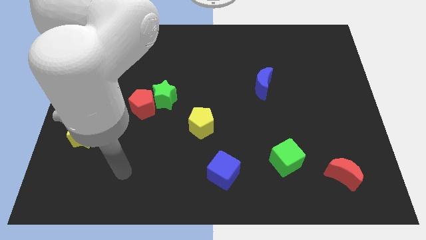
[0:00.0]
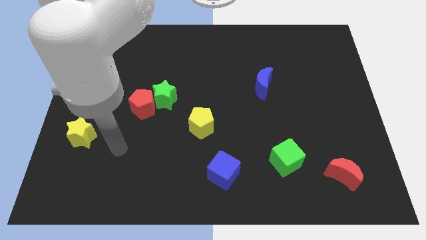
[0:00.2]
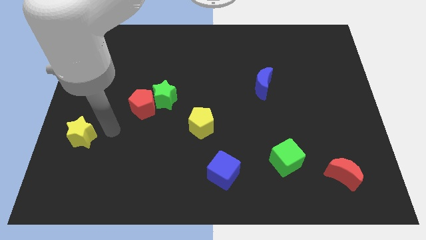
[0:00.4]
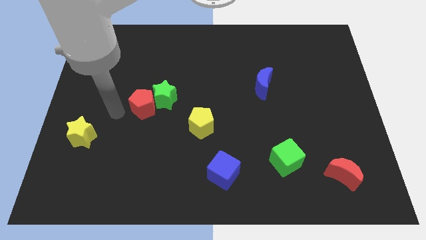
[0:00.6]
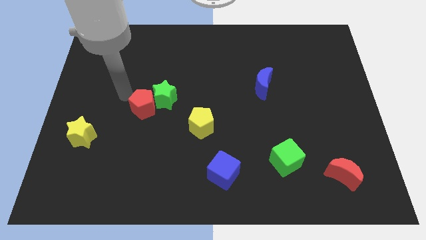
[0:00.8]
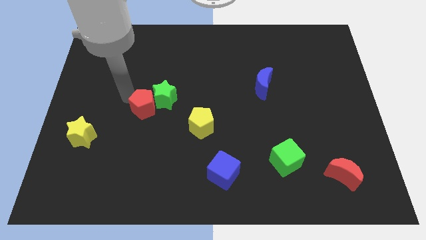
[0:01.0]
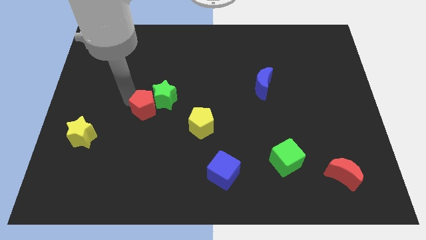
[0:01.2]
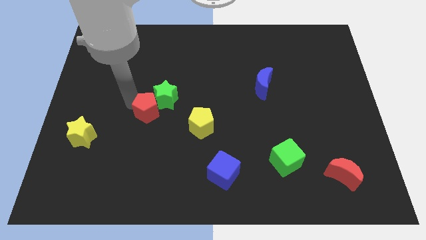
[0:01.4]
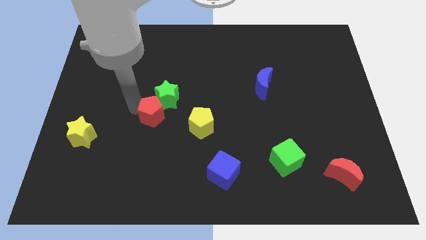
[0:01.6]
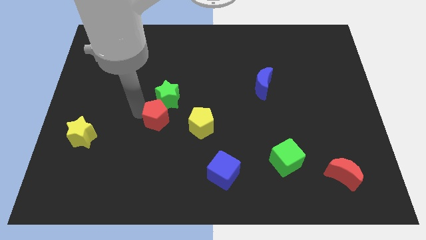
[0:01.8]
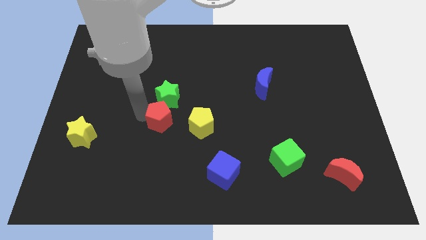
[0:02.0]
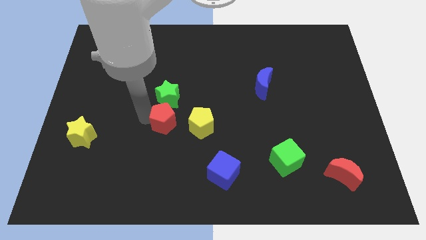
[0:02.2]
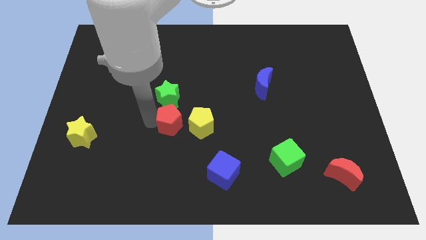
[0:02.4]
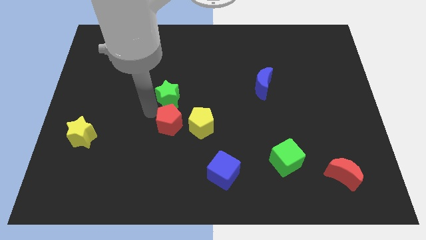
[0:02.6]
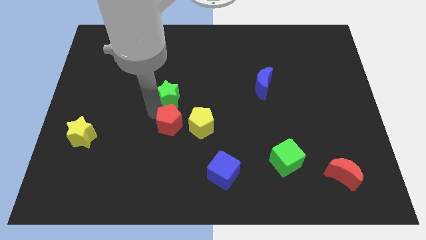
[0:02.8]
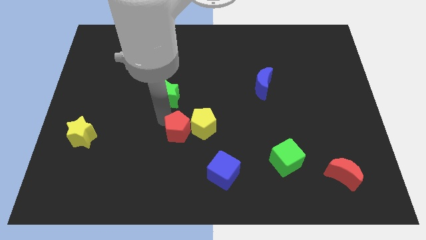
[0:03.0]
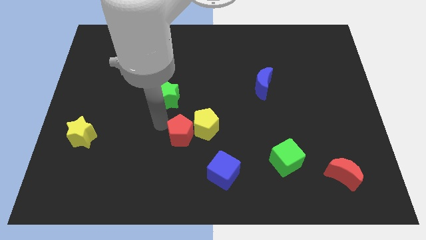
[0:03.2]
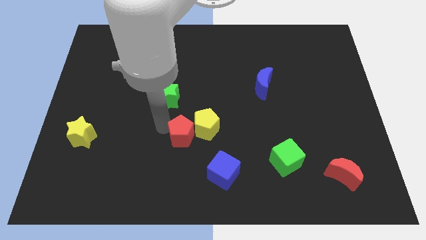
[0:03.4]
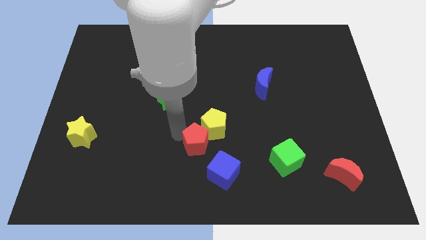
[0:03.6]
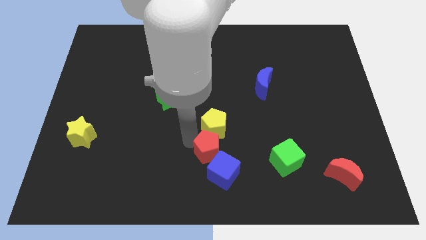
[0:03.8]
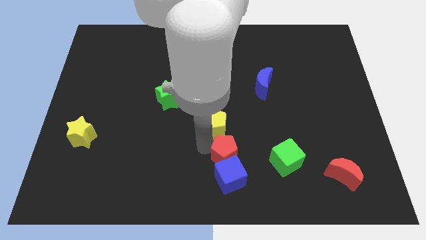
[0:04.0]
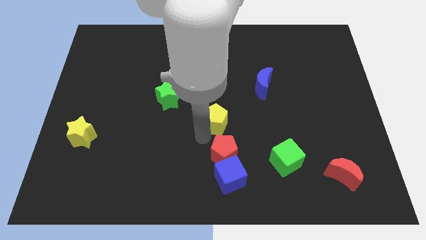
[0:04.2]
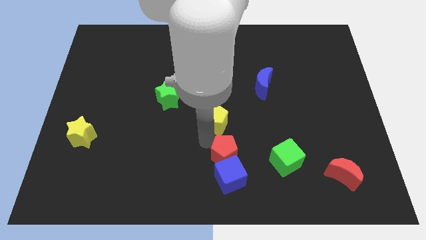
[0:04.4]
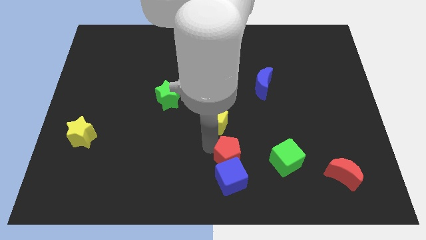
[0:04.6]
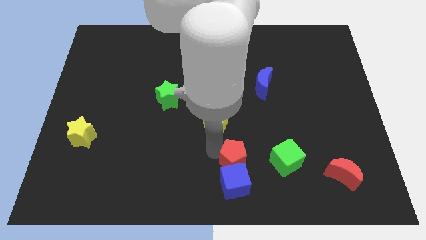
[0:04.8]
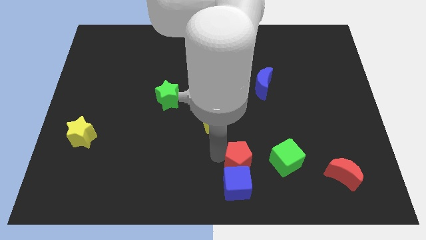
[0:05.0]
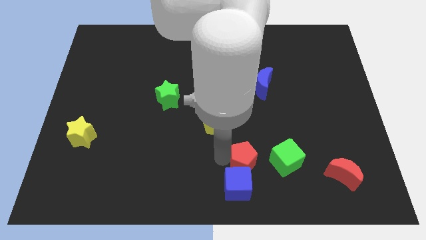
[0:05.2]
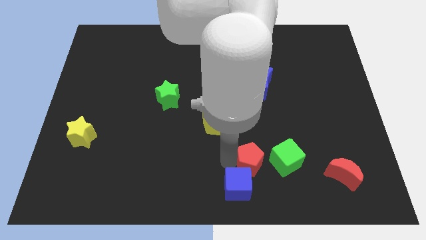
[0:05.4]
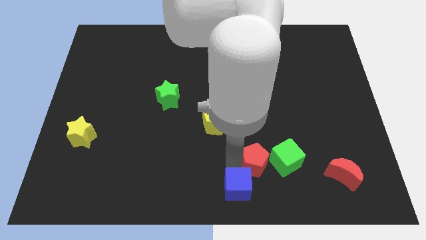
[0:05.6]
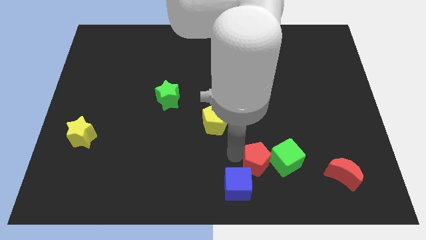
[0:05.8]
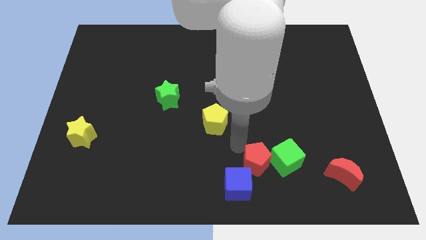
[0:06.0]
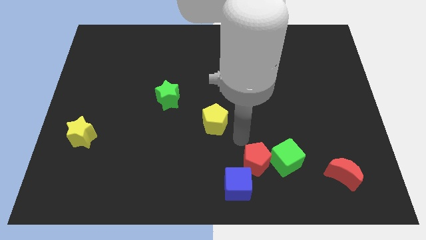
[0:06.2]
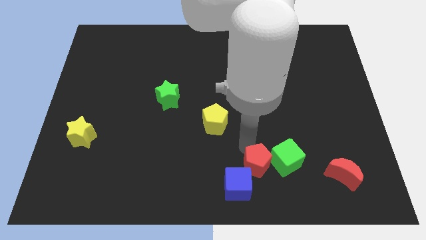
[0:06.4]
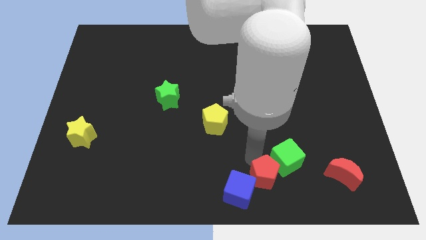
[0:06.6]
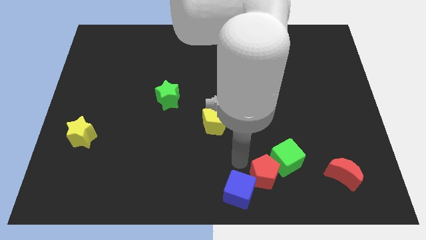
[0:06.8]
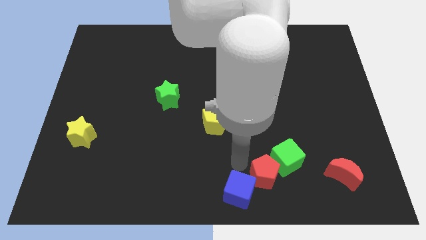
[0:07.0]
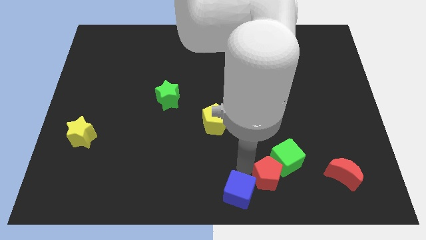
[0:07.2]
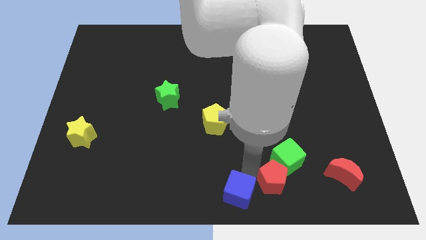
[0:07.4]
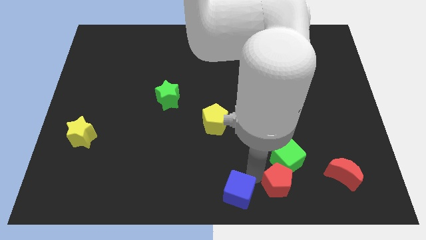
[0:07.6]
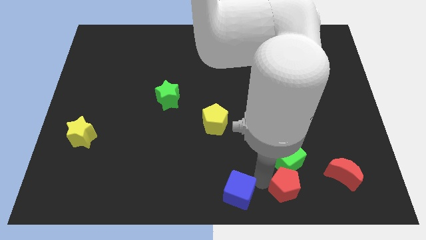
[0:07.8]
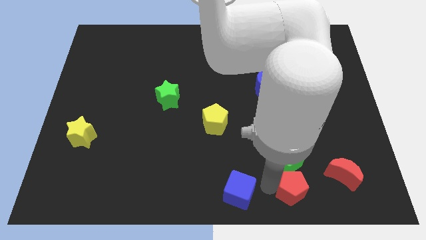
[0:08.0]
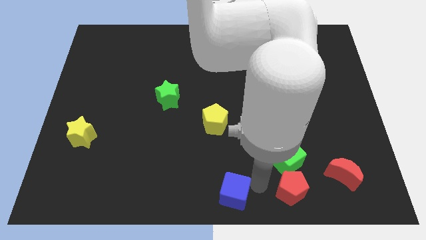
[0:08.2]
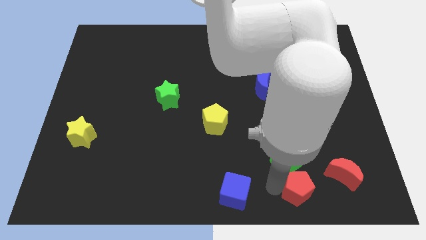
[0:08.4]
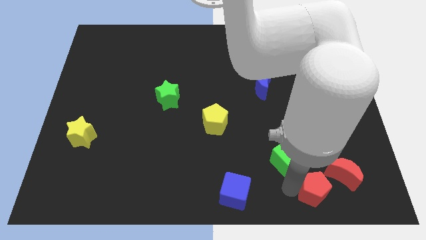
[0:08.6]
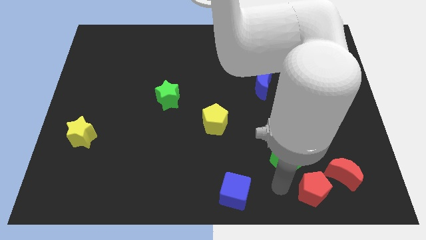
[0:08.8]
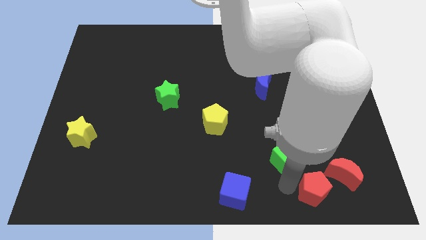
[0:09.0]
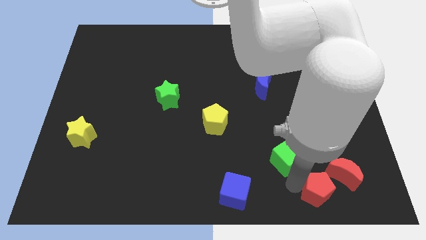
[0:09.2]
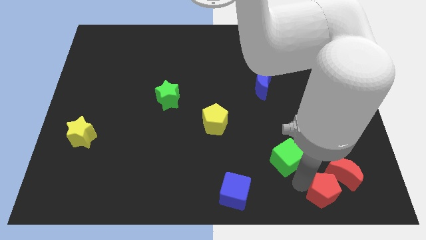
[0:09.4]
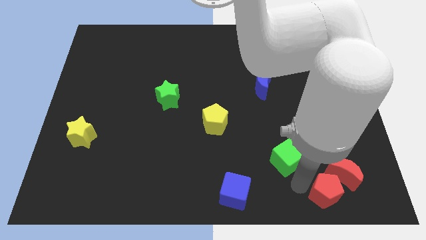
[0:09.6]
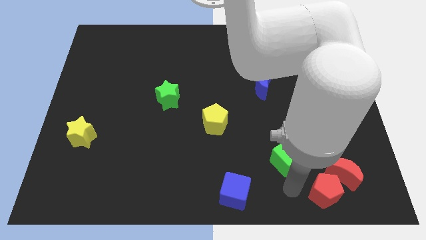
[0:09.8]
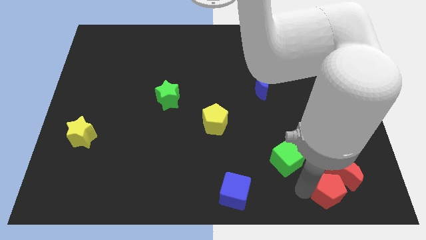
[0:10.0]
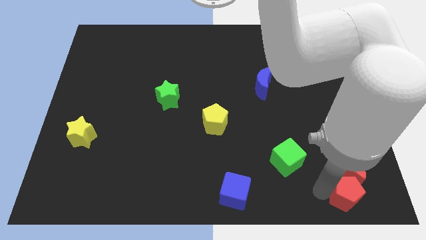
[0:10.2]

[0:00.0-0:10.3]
push the red pentagon to the lower right corner
